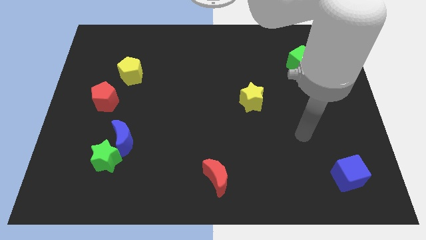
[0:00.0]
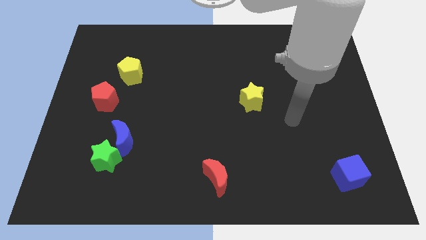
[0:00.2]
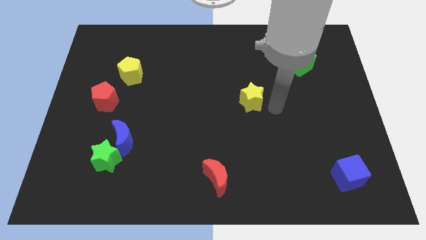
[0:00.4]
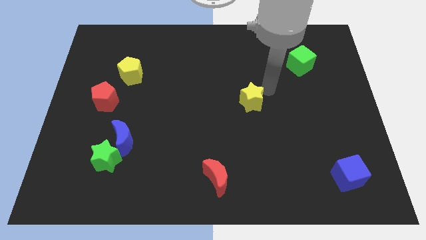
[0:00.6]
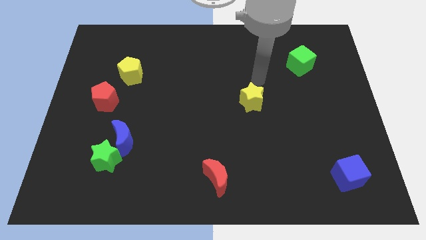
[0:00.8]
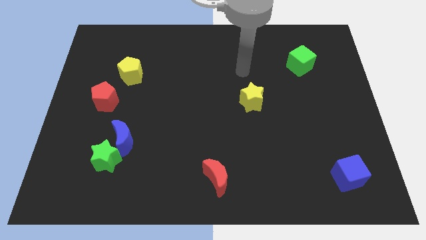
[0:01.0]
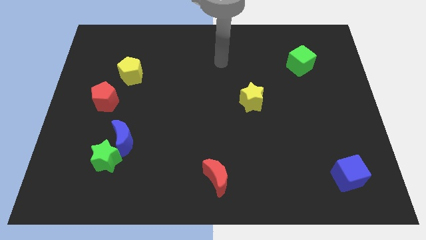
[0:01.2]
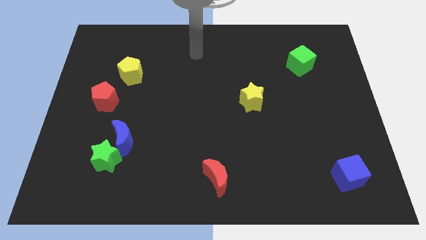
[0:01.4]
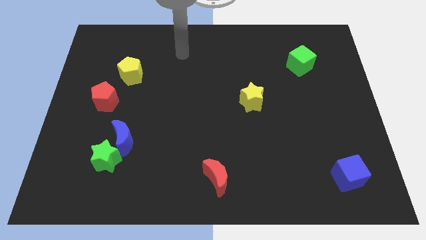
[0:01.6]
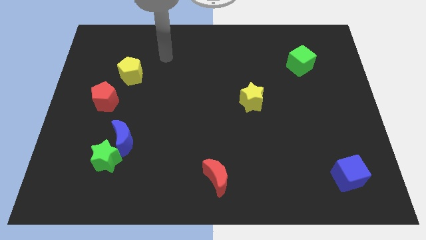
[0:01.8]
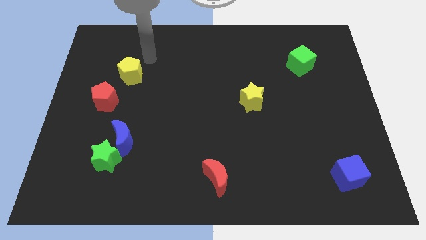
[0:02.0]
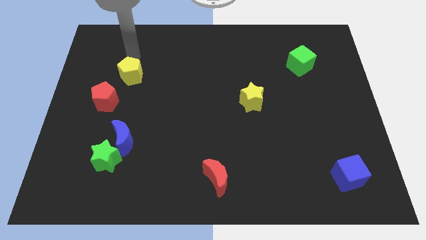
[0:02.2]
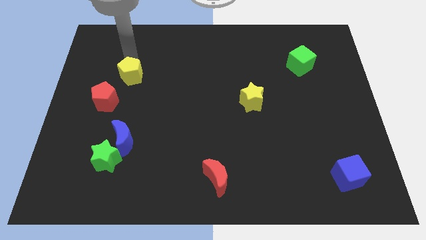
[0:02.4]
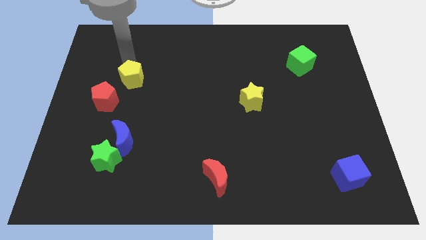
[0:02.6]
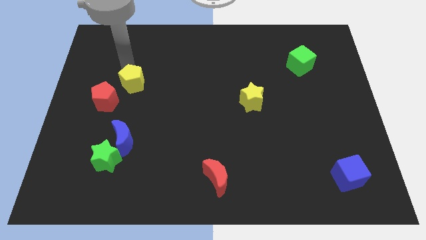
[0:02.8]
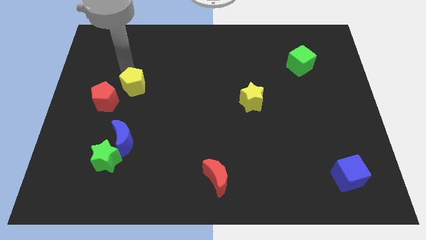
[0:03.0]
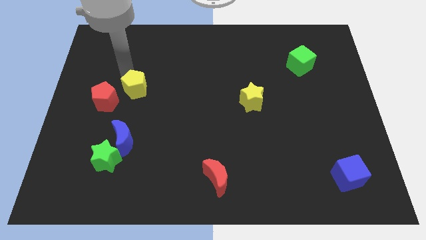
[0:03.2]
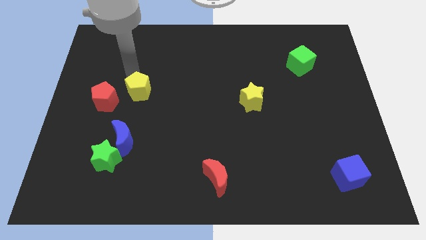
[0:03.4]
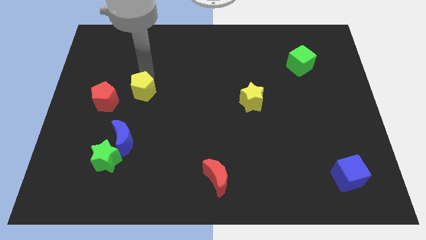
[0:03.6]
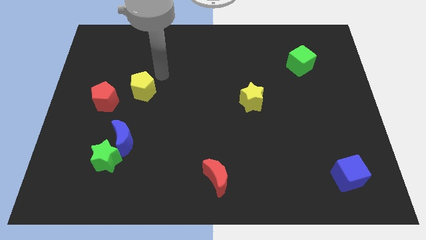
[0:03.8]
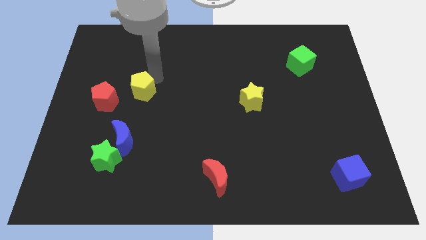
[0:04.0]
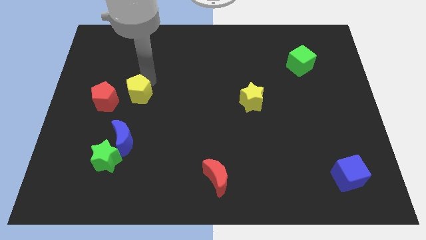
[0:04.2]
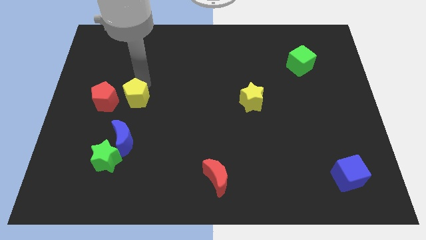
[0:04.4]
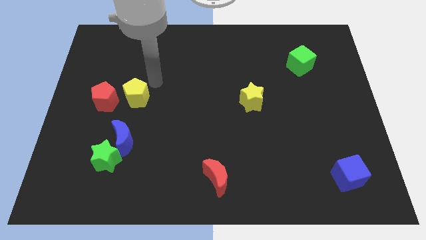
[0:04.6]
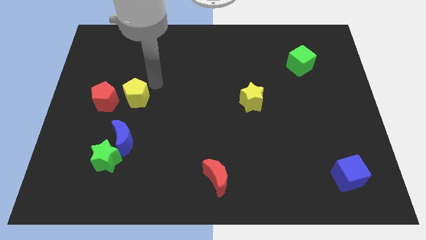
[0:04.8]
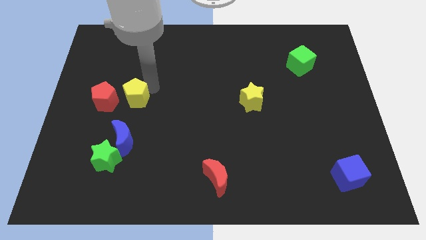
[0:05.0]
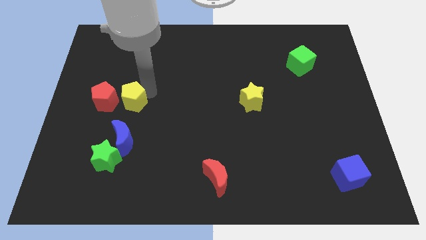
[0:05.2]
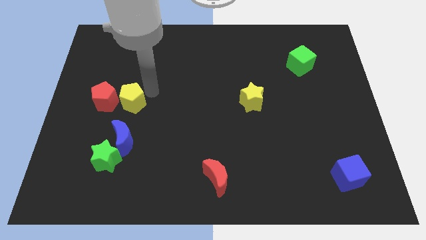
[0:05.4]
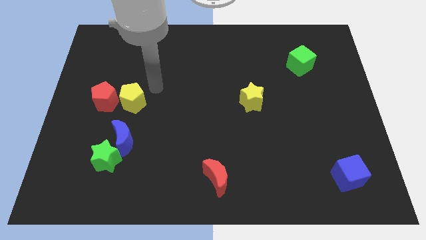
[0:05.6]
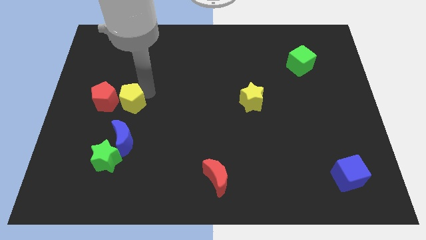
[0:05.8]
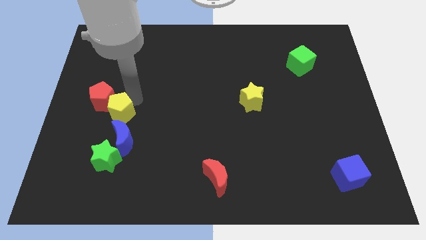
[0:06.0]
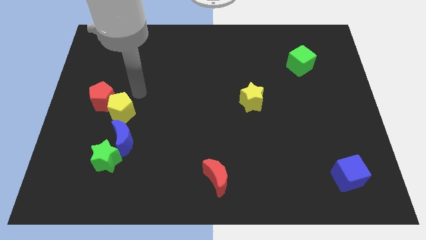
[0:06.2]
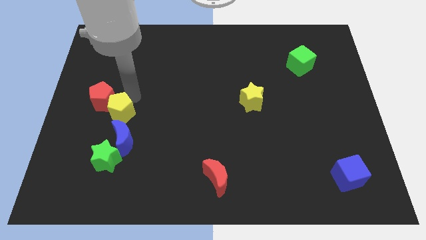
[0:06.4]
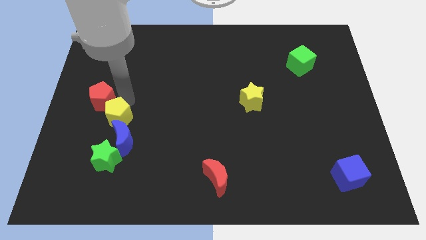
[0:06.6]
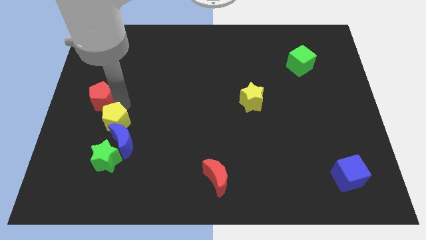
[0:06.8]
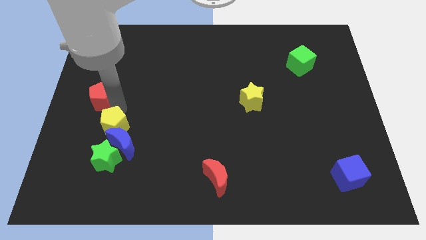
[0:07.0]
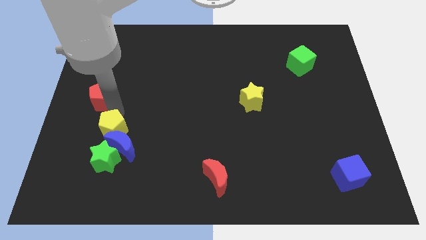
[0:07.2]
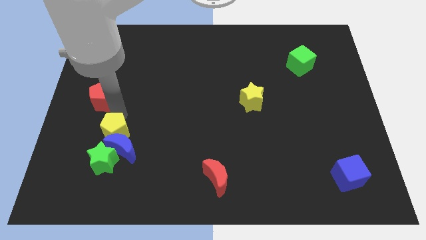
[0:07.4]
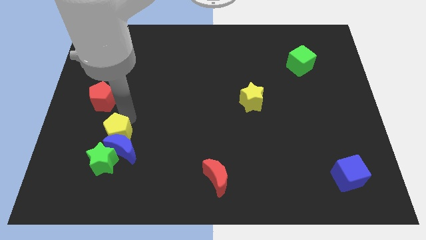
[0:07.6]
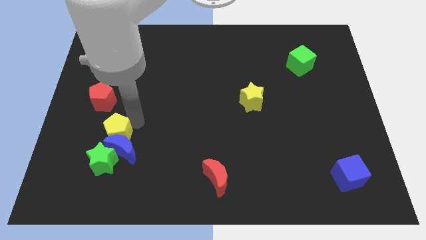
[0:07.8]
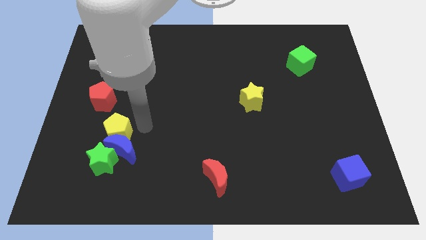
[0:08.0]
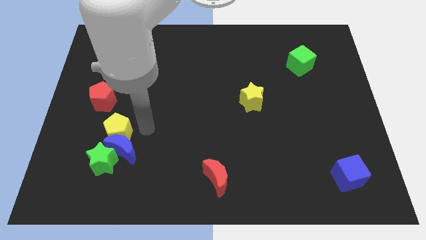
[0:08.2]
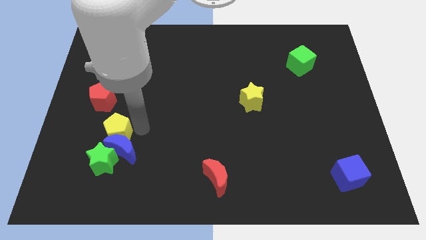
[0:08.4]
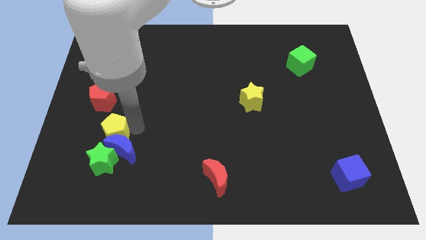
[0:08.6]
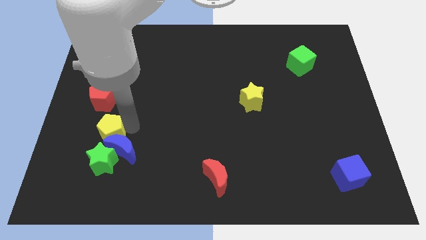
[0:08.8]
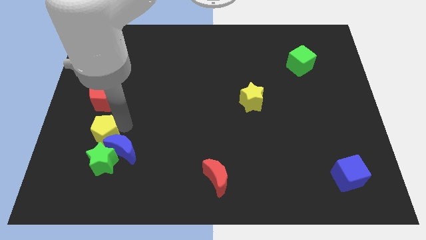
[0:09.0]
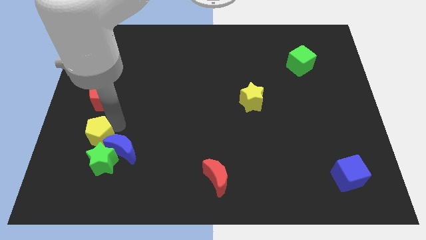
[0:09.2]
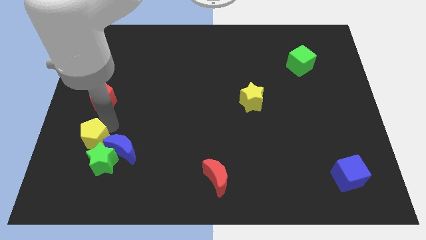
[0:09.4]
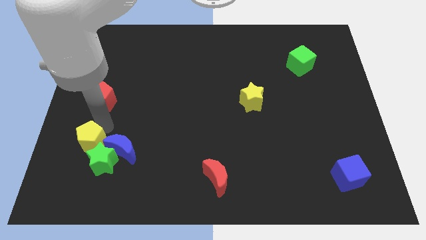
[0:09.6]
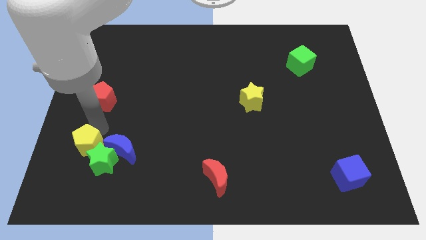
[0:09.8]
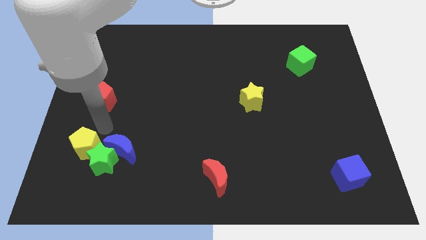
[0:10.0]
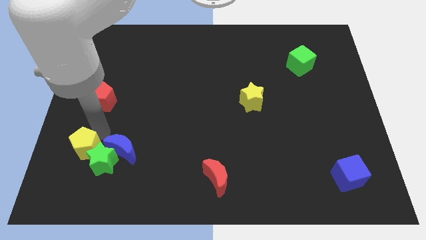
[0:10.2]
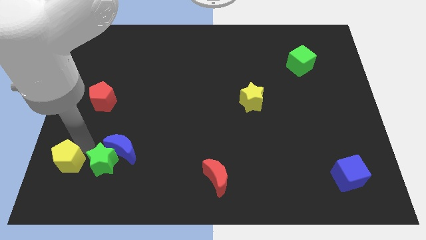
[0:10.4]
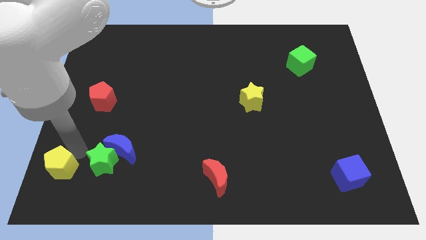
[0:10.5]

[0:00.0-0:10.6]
put the yellow pentagon to the bottom left corner
